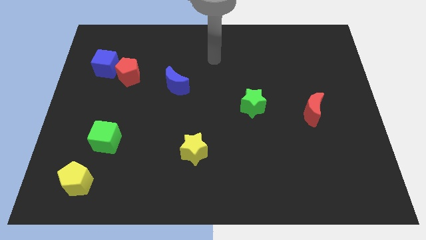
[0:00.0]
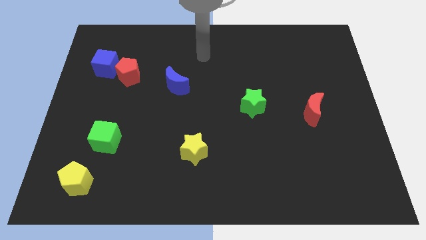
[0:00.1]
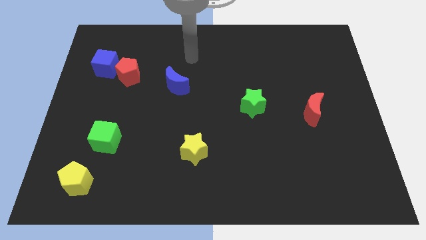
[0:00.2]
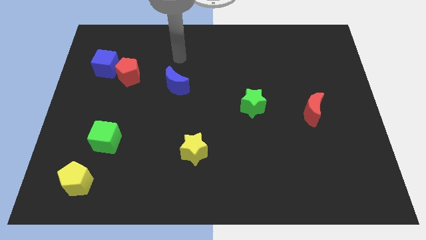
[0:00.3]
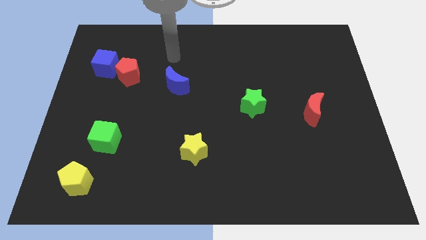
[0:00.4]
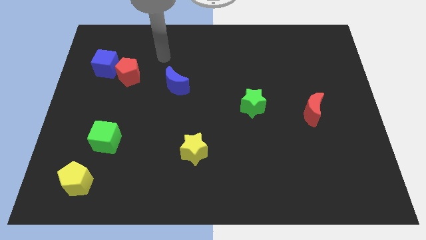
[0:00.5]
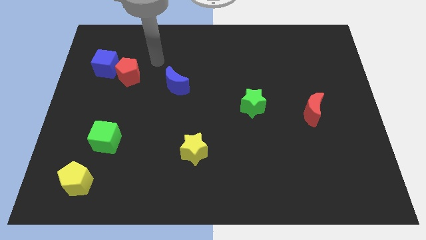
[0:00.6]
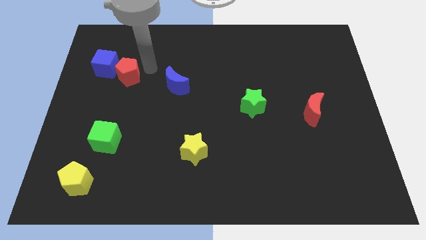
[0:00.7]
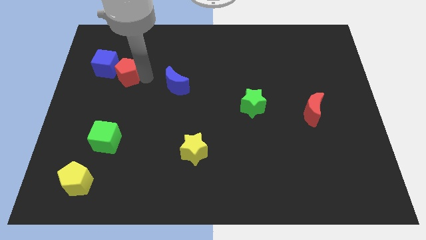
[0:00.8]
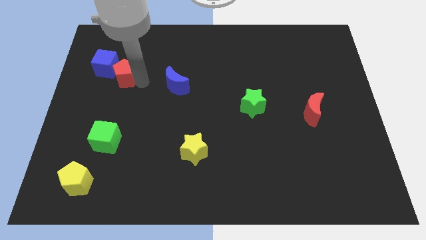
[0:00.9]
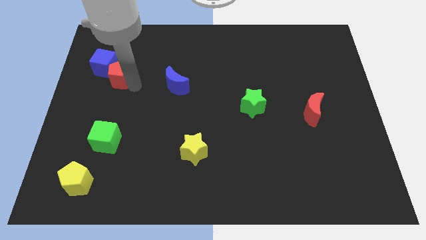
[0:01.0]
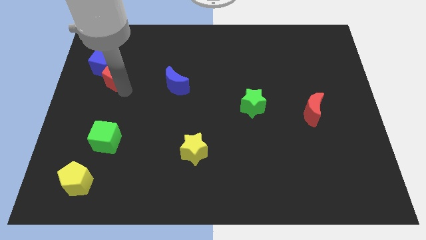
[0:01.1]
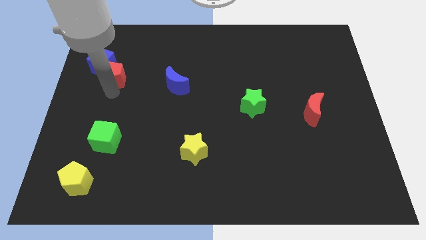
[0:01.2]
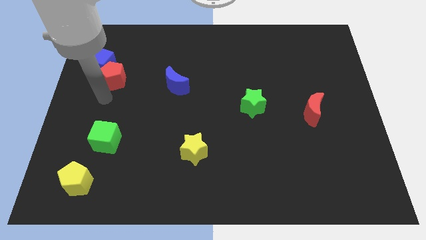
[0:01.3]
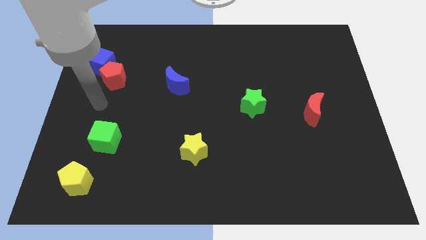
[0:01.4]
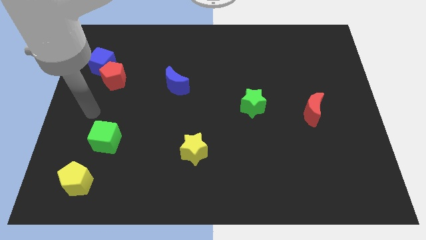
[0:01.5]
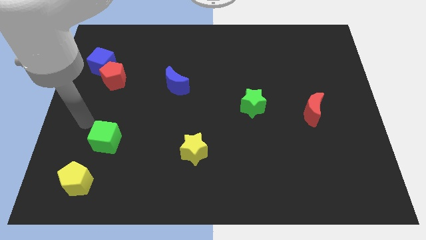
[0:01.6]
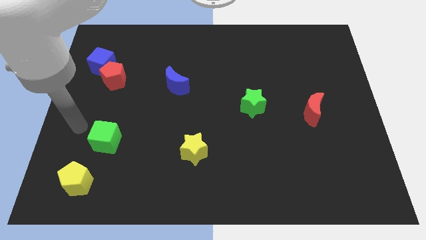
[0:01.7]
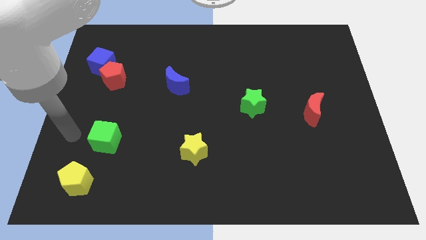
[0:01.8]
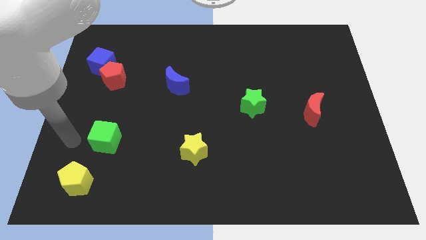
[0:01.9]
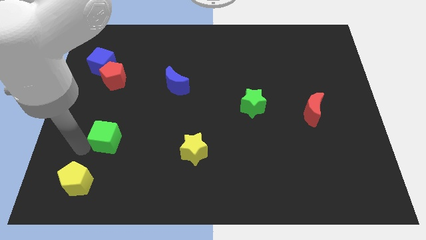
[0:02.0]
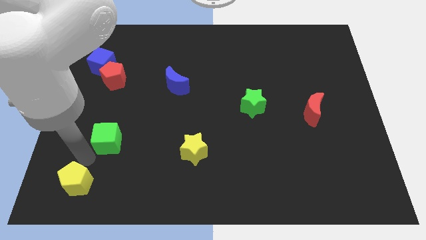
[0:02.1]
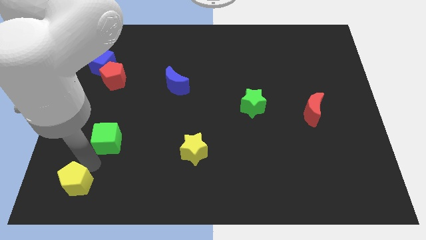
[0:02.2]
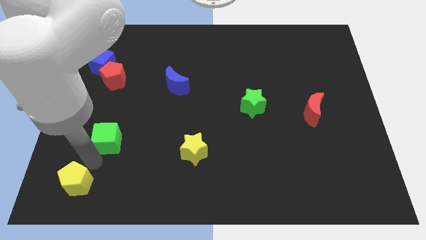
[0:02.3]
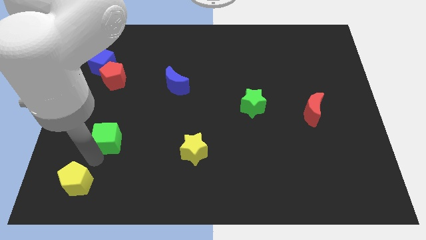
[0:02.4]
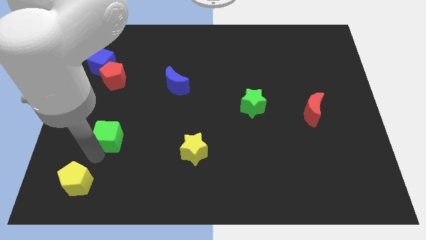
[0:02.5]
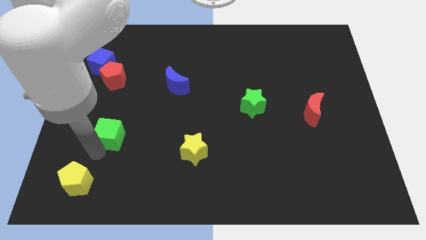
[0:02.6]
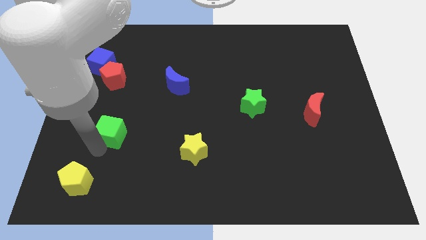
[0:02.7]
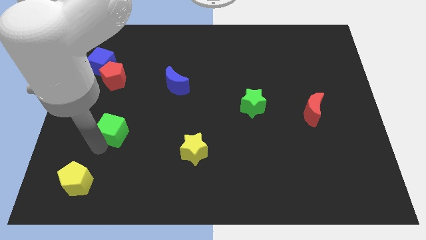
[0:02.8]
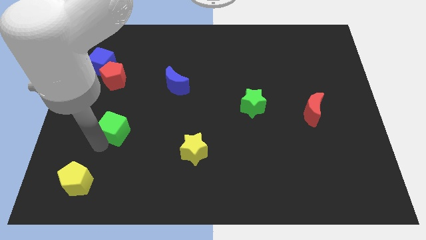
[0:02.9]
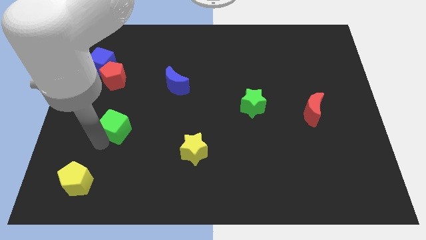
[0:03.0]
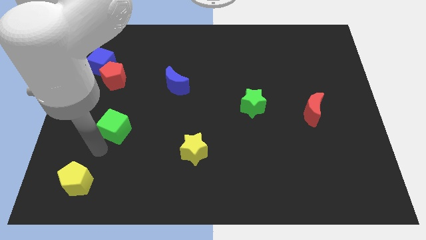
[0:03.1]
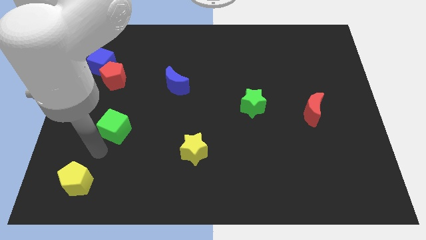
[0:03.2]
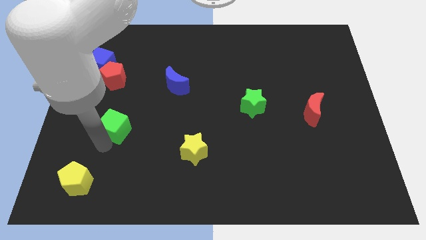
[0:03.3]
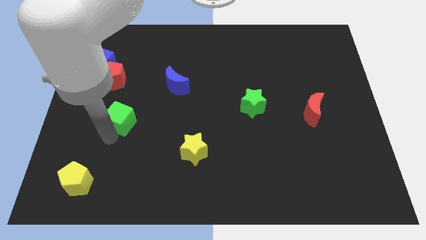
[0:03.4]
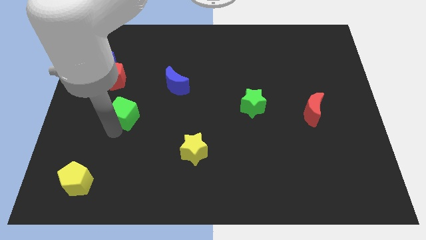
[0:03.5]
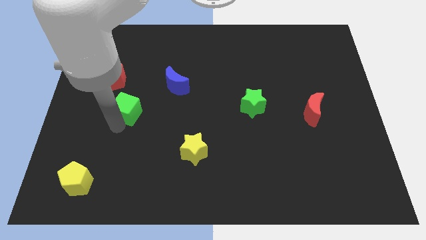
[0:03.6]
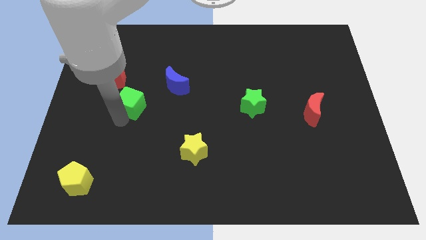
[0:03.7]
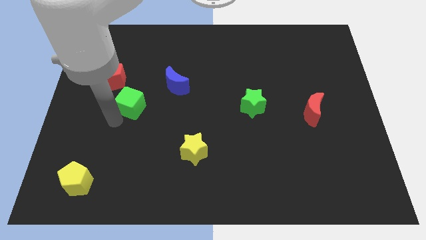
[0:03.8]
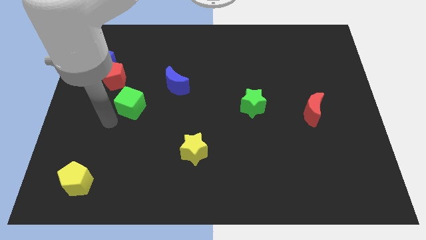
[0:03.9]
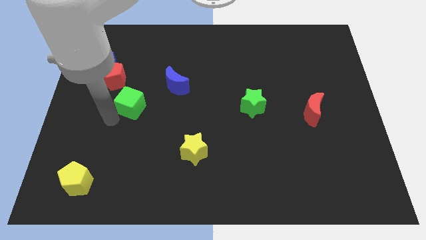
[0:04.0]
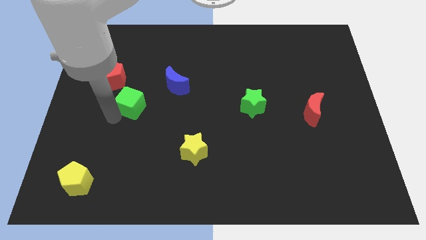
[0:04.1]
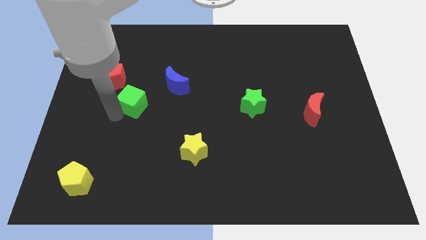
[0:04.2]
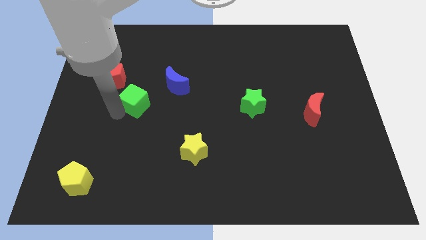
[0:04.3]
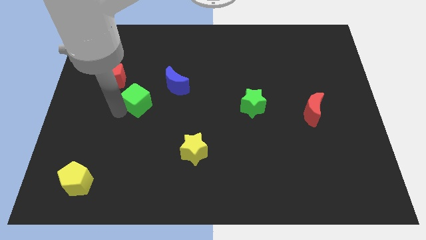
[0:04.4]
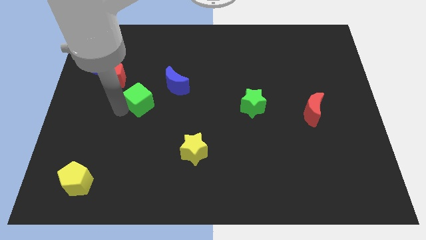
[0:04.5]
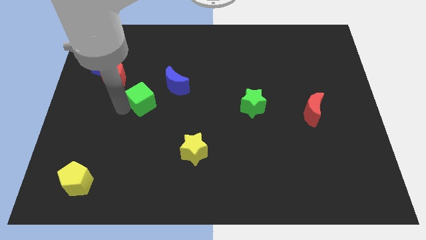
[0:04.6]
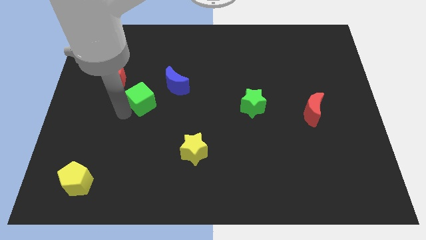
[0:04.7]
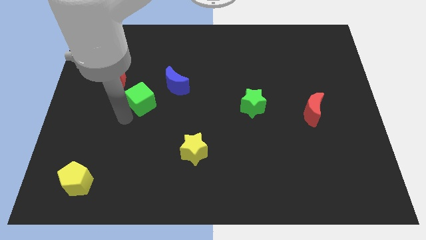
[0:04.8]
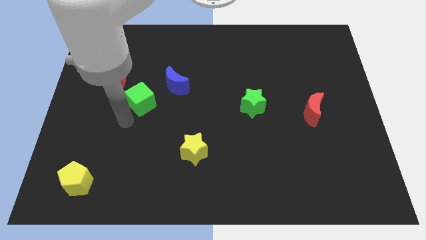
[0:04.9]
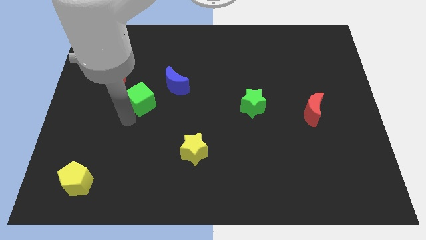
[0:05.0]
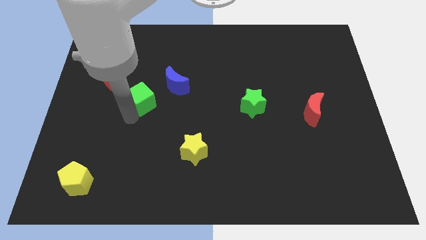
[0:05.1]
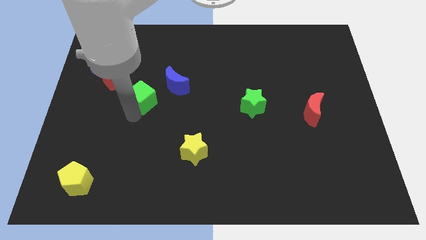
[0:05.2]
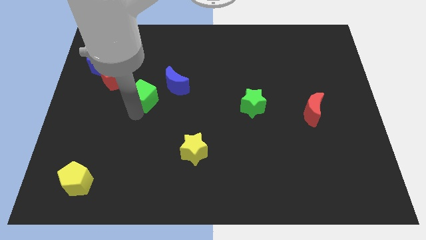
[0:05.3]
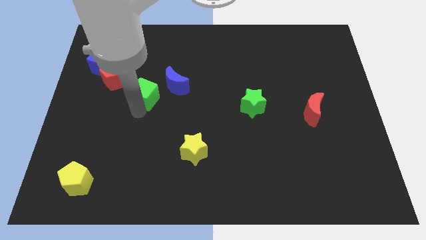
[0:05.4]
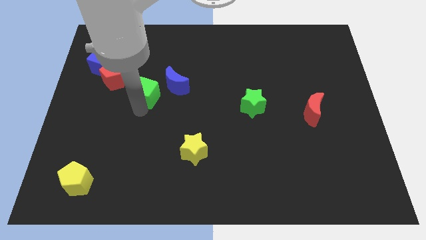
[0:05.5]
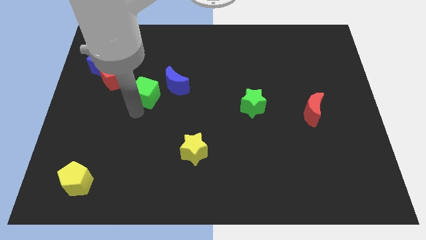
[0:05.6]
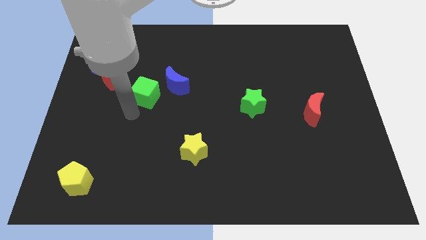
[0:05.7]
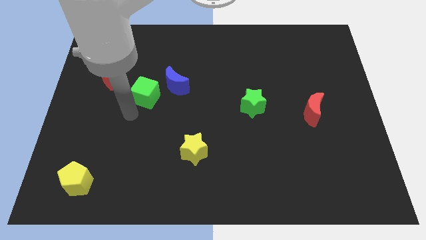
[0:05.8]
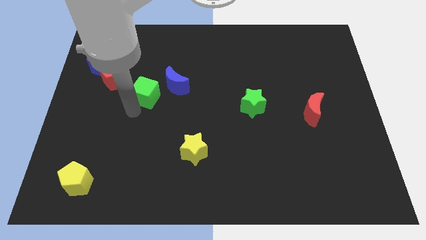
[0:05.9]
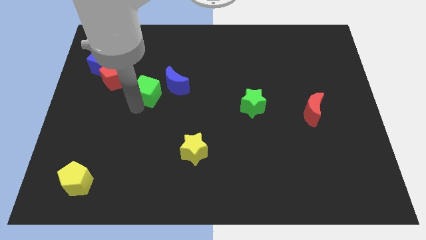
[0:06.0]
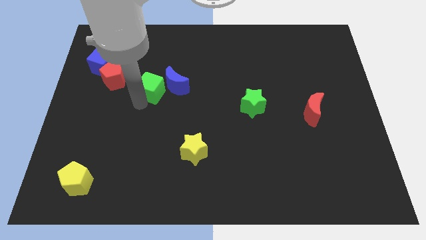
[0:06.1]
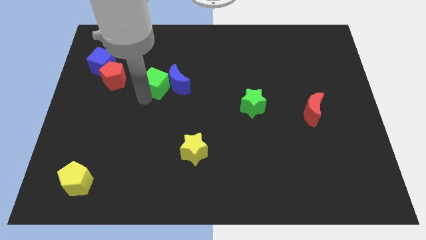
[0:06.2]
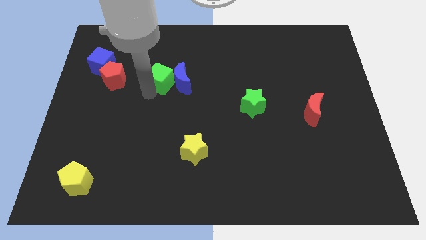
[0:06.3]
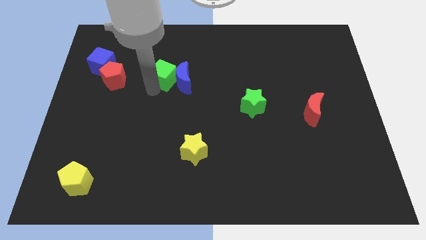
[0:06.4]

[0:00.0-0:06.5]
move the green cube up and right

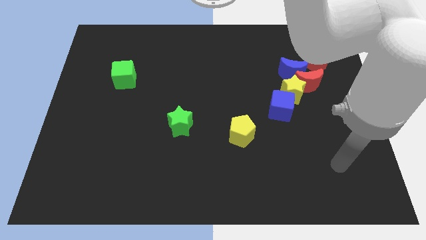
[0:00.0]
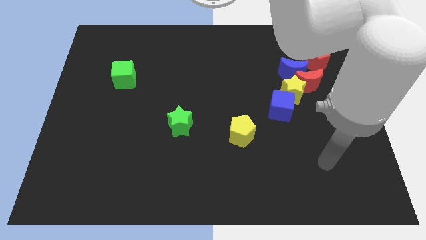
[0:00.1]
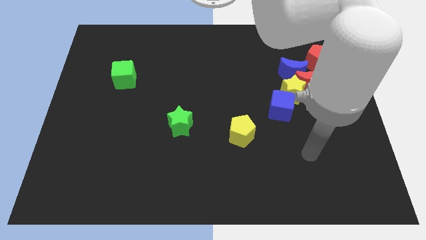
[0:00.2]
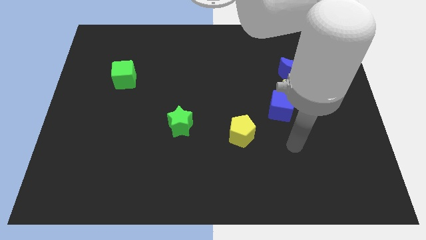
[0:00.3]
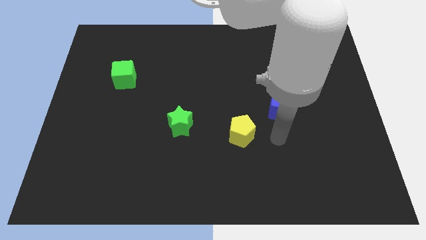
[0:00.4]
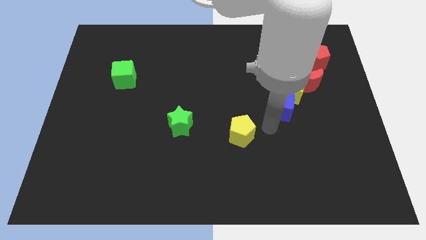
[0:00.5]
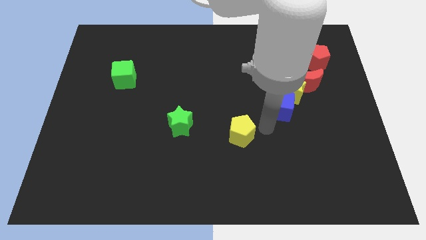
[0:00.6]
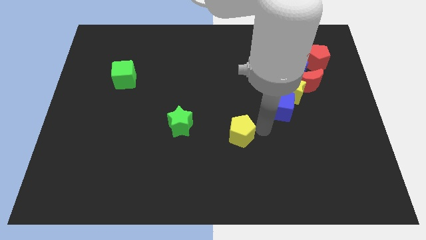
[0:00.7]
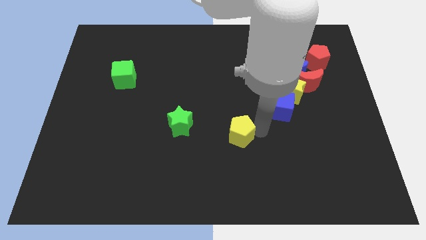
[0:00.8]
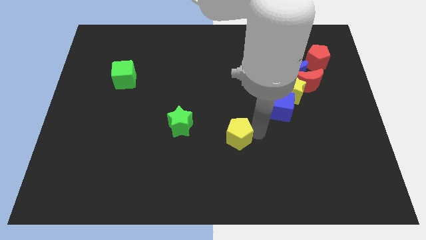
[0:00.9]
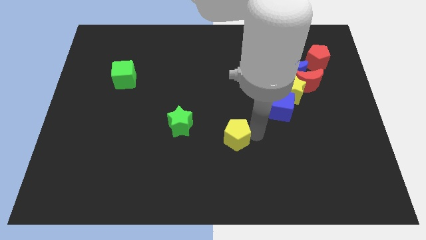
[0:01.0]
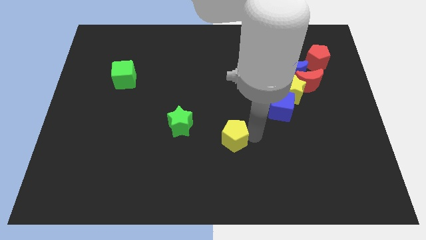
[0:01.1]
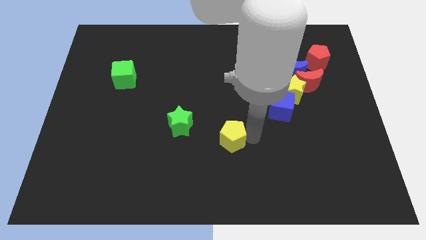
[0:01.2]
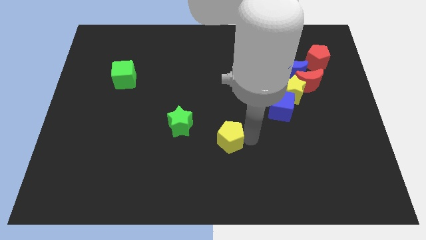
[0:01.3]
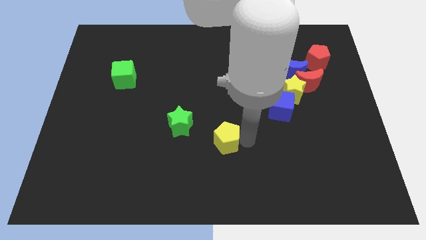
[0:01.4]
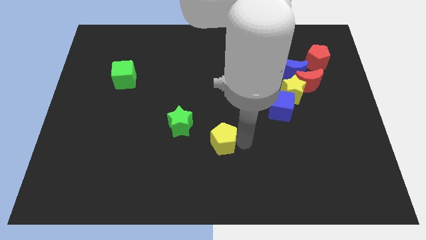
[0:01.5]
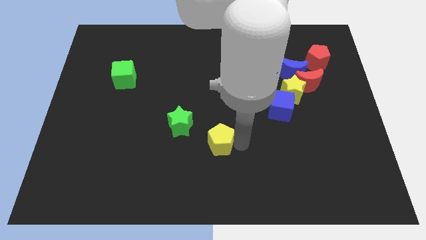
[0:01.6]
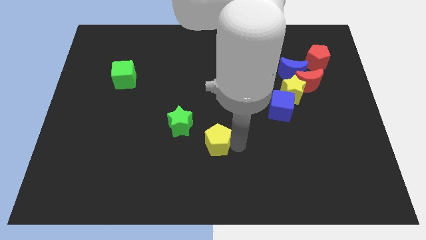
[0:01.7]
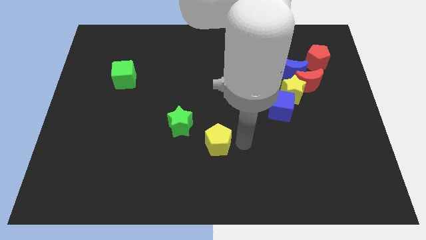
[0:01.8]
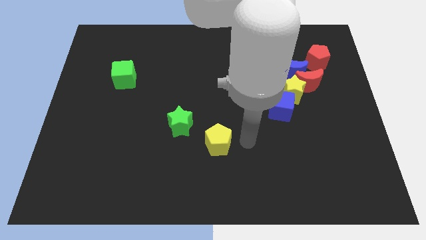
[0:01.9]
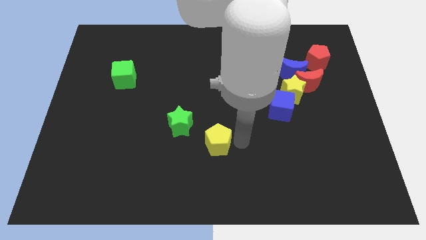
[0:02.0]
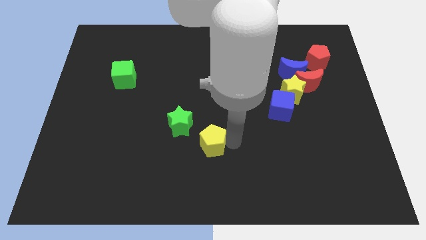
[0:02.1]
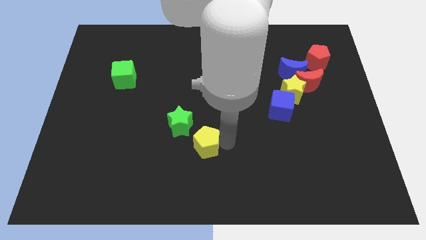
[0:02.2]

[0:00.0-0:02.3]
slightly push the yellow pentagon to the left
